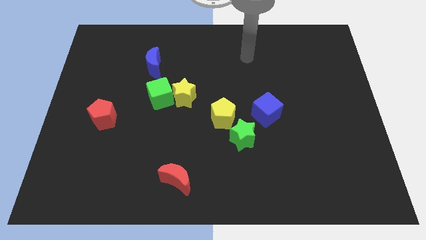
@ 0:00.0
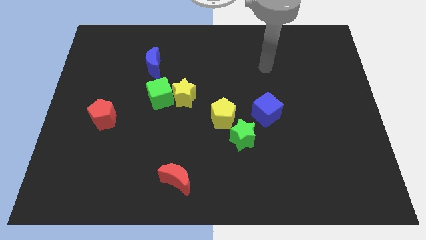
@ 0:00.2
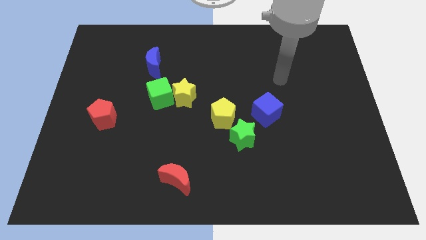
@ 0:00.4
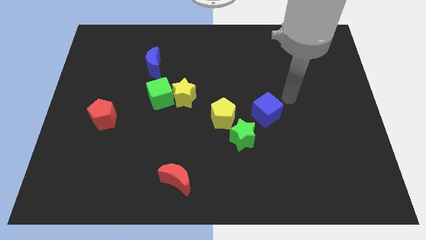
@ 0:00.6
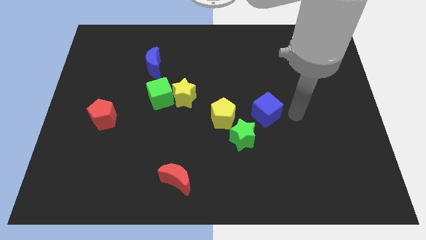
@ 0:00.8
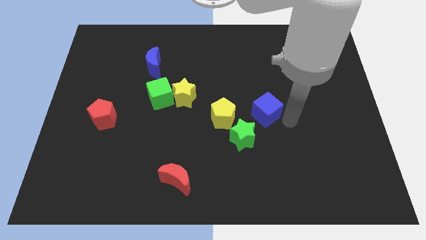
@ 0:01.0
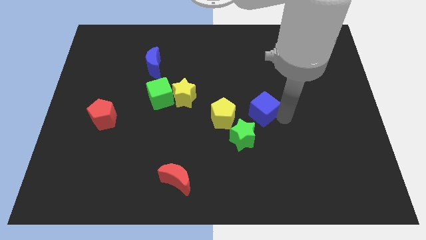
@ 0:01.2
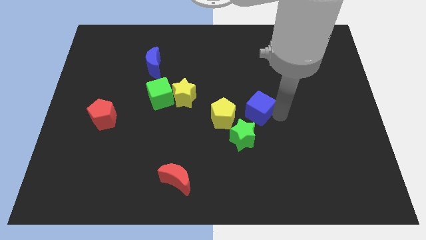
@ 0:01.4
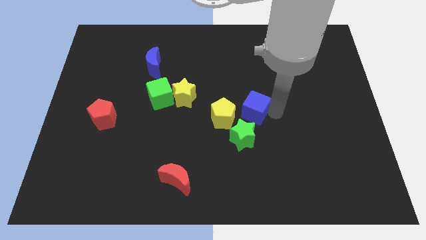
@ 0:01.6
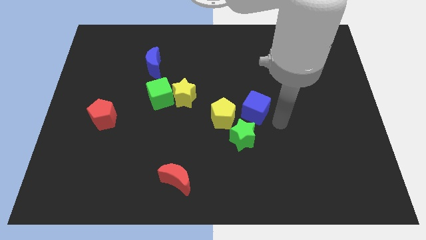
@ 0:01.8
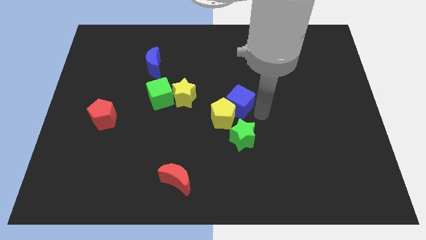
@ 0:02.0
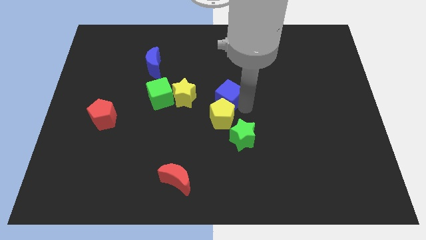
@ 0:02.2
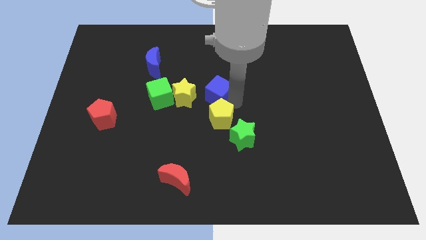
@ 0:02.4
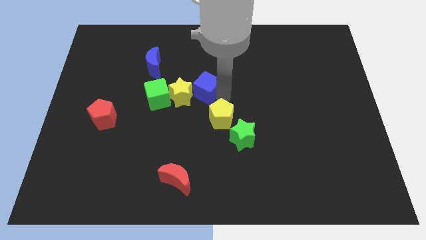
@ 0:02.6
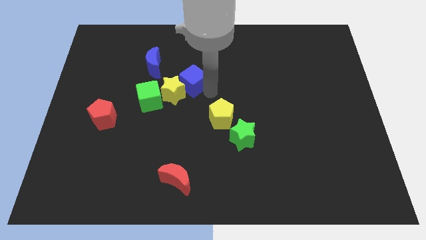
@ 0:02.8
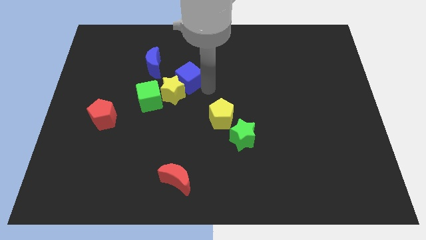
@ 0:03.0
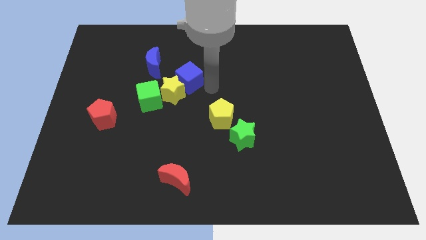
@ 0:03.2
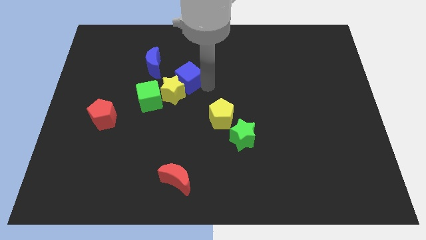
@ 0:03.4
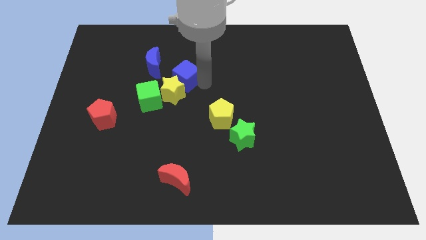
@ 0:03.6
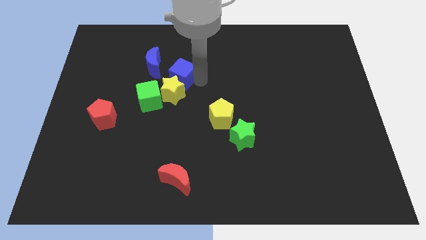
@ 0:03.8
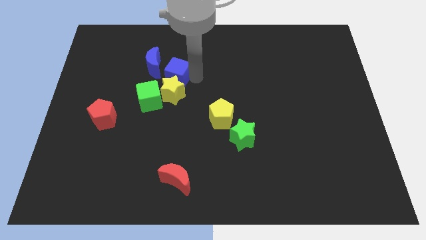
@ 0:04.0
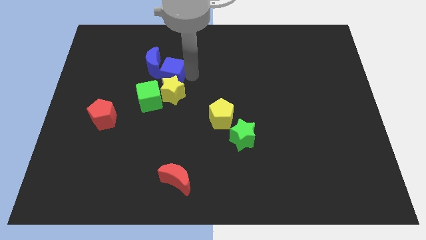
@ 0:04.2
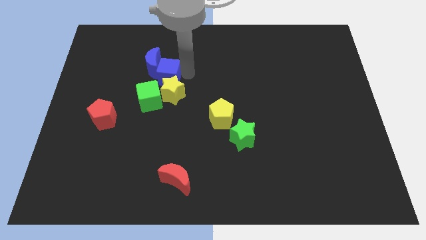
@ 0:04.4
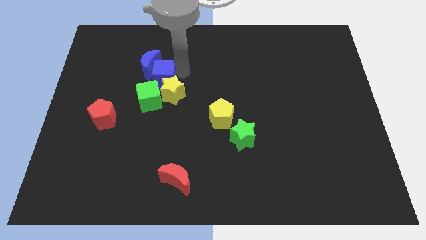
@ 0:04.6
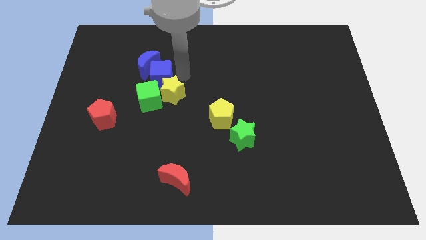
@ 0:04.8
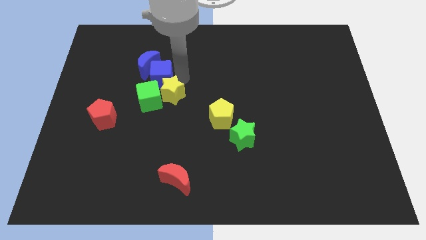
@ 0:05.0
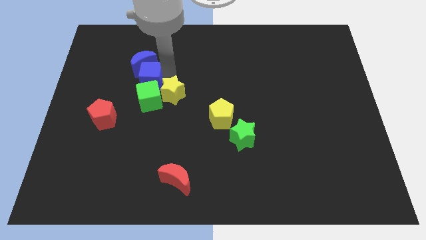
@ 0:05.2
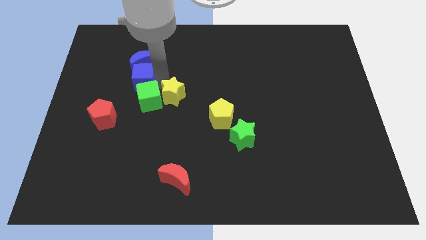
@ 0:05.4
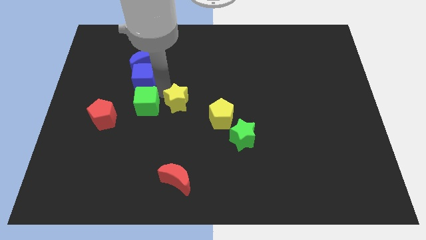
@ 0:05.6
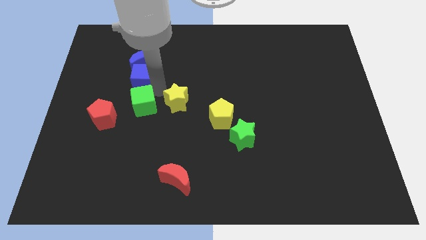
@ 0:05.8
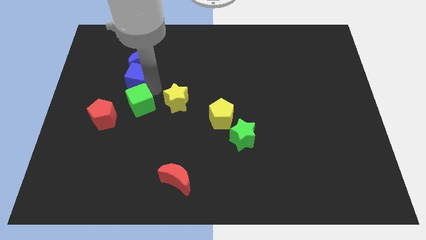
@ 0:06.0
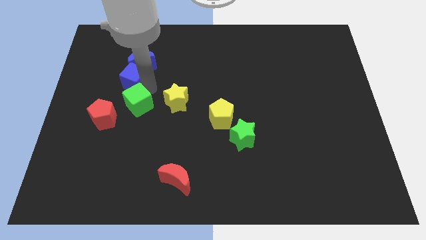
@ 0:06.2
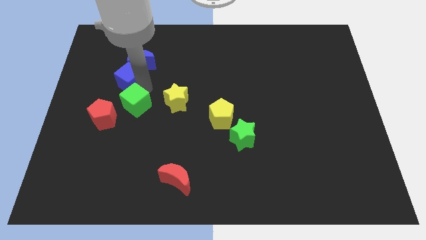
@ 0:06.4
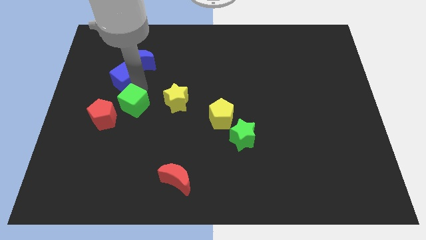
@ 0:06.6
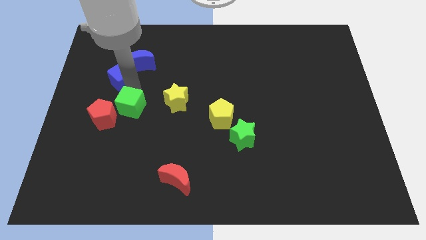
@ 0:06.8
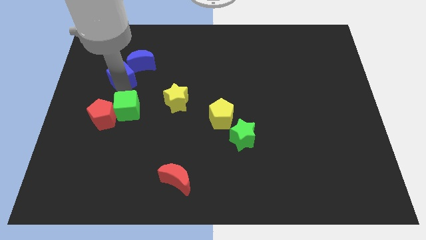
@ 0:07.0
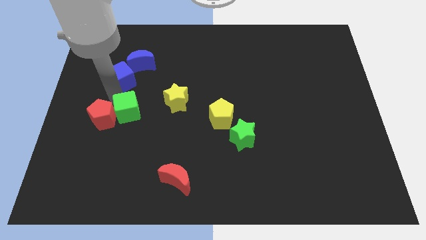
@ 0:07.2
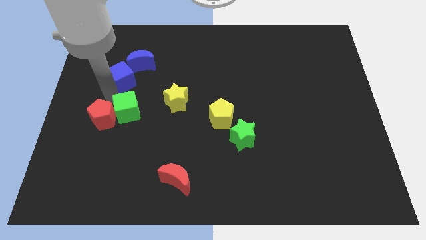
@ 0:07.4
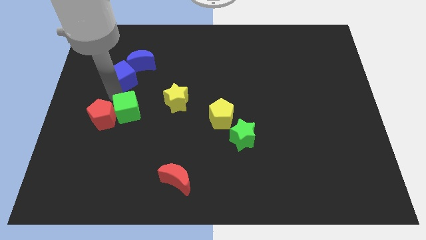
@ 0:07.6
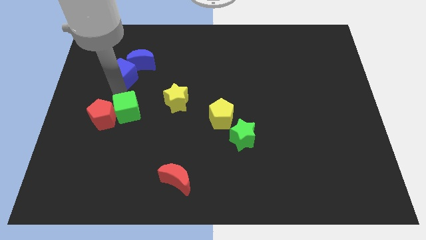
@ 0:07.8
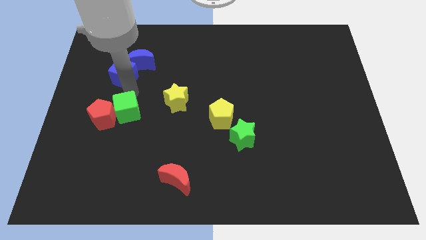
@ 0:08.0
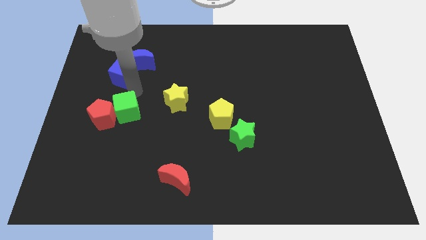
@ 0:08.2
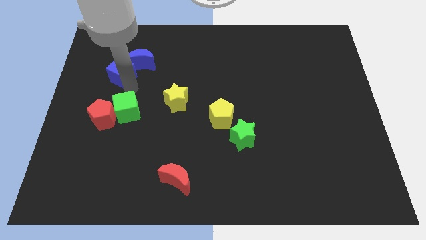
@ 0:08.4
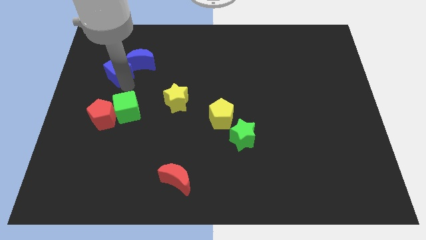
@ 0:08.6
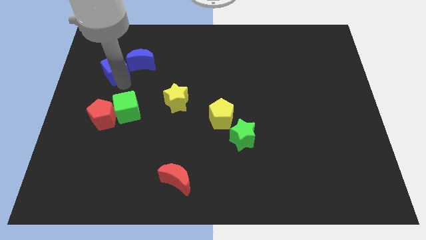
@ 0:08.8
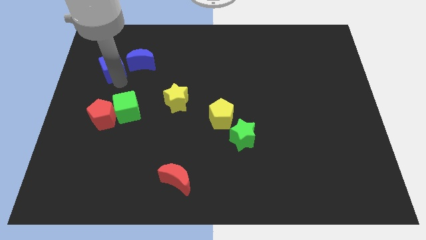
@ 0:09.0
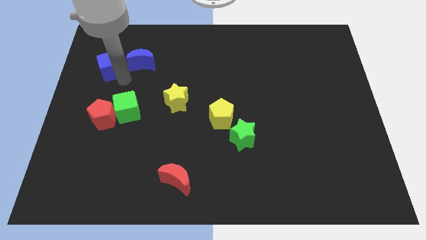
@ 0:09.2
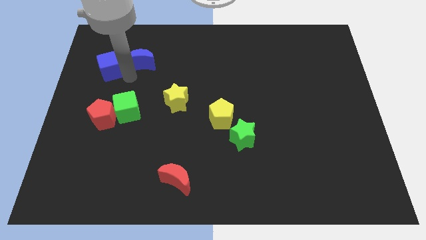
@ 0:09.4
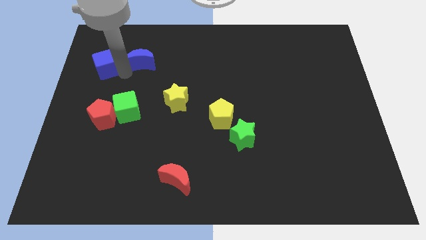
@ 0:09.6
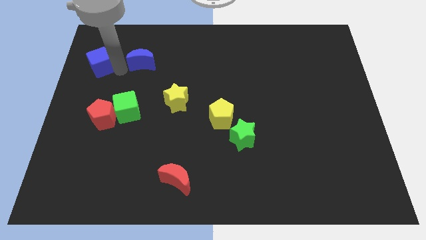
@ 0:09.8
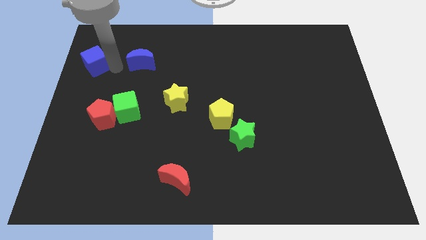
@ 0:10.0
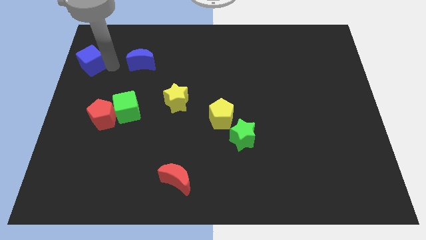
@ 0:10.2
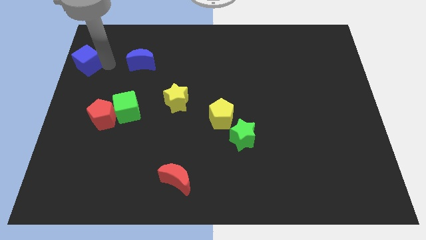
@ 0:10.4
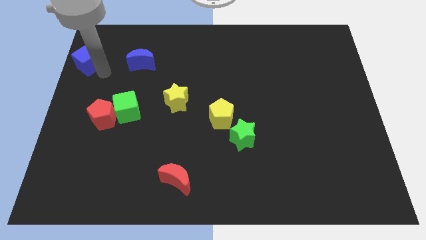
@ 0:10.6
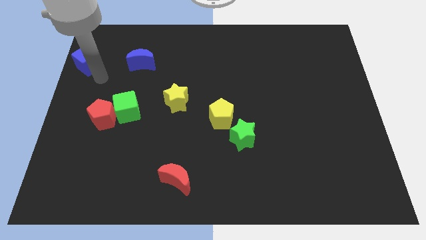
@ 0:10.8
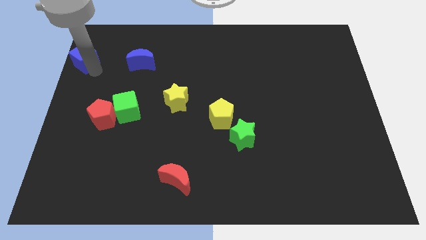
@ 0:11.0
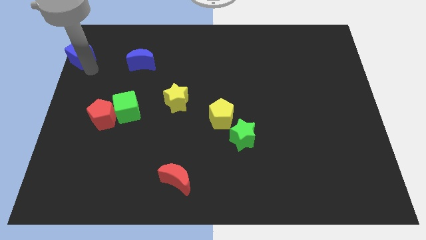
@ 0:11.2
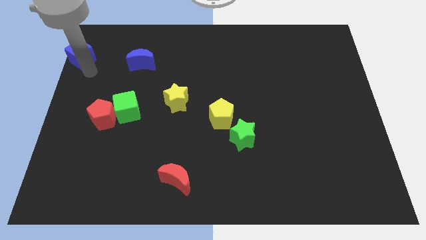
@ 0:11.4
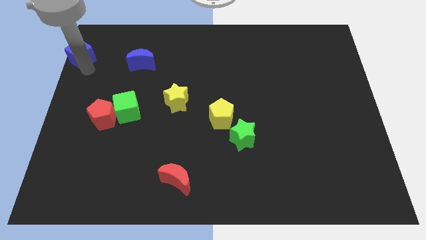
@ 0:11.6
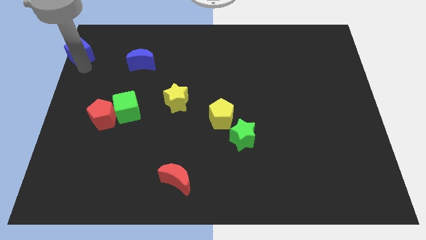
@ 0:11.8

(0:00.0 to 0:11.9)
move the blue cube to the top left corner

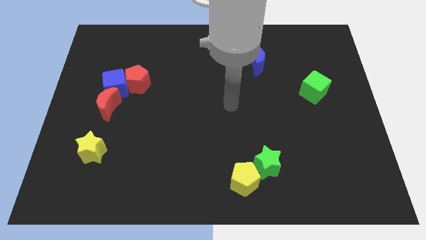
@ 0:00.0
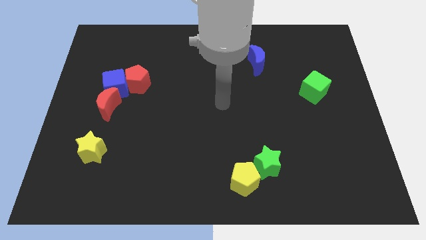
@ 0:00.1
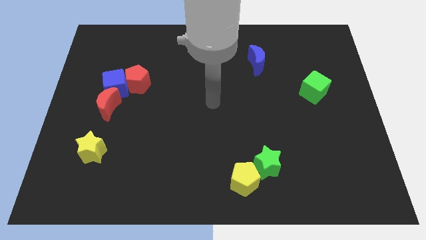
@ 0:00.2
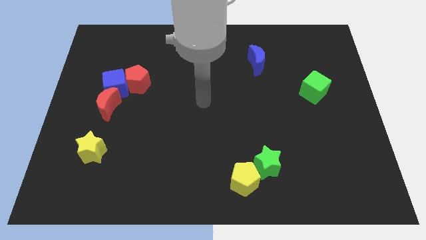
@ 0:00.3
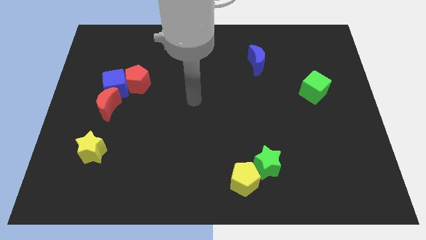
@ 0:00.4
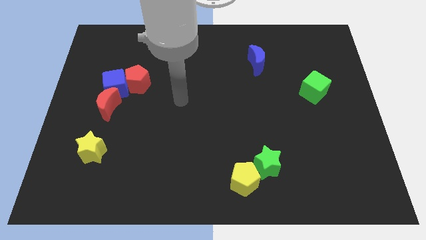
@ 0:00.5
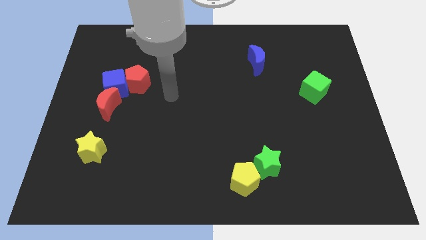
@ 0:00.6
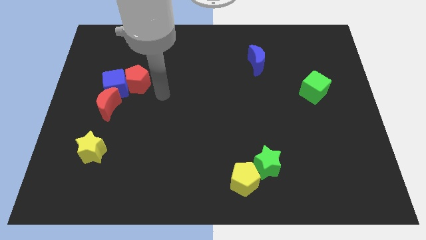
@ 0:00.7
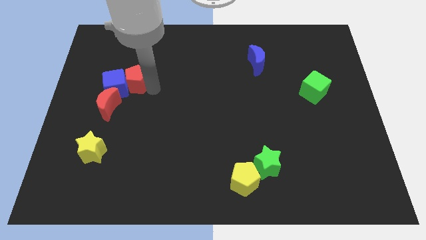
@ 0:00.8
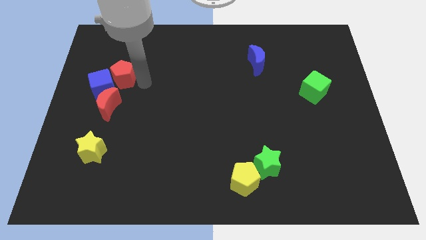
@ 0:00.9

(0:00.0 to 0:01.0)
move the blue cube to the left side
